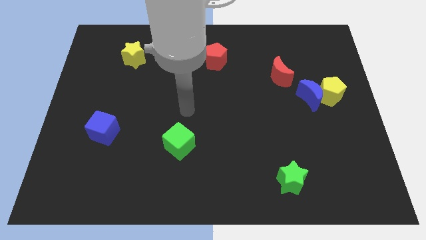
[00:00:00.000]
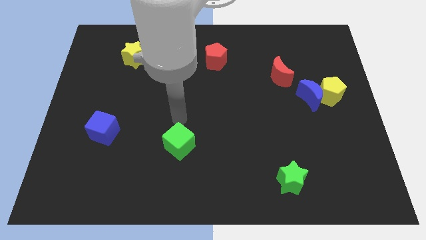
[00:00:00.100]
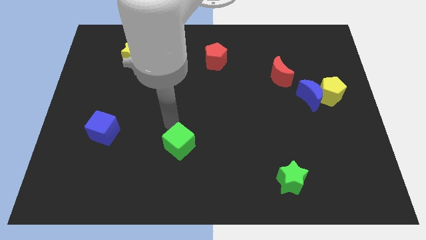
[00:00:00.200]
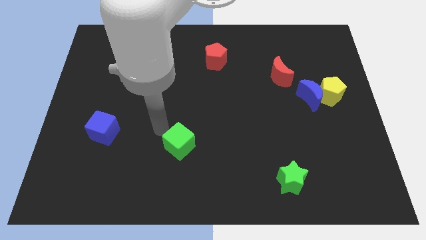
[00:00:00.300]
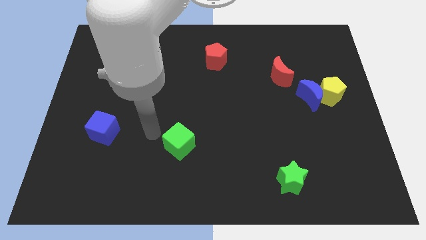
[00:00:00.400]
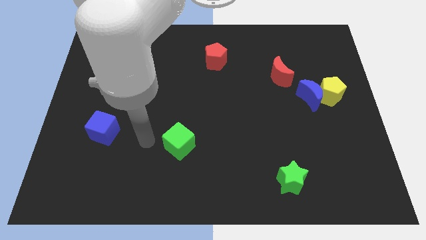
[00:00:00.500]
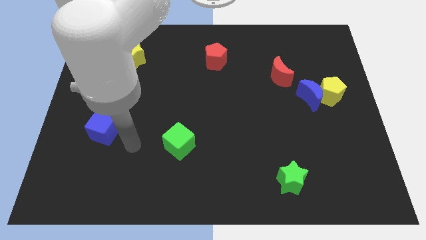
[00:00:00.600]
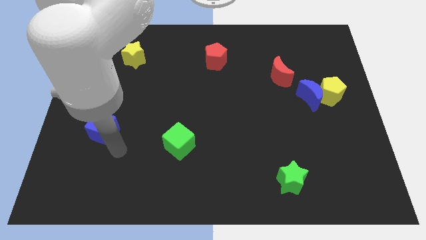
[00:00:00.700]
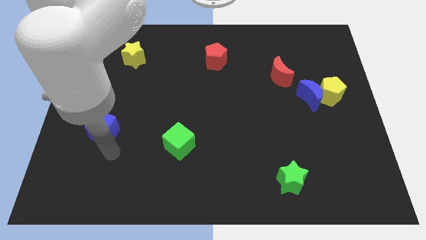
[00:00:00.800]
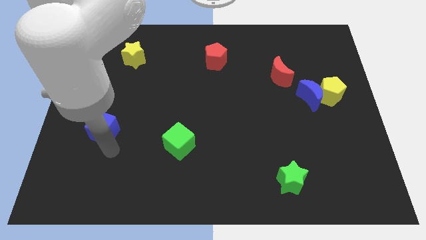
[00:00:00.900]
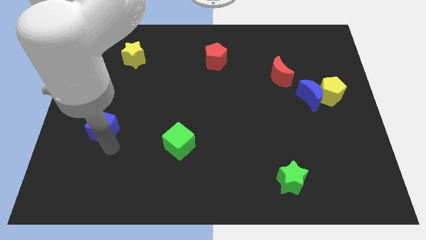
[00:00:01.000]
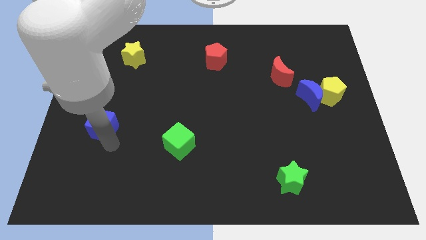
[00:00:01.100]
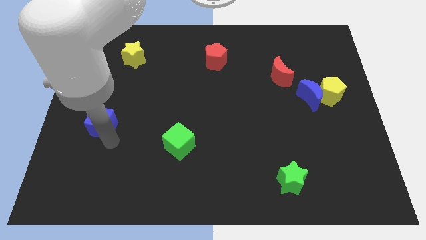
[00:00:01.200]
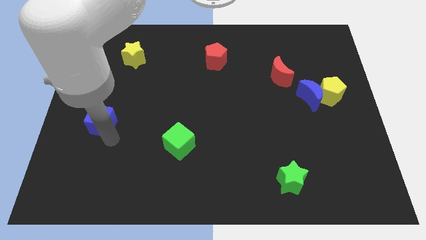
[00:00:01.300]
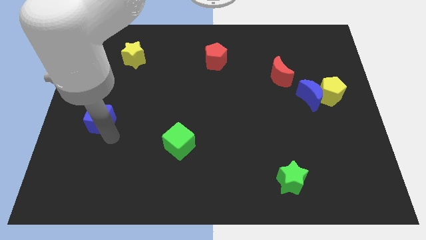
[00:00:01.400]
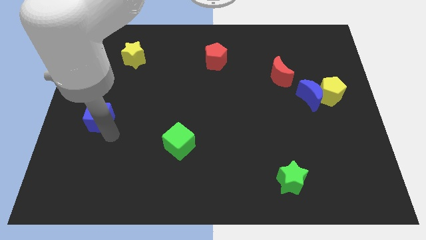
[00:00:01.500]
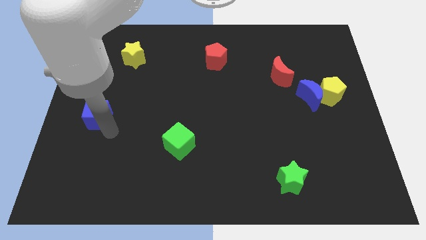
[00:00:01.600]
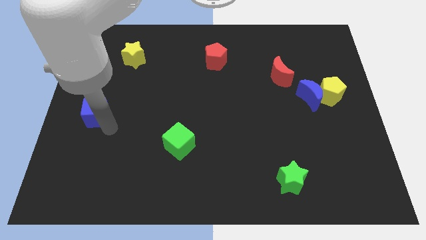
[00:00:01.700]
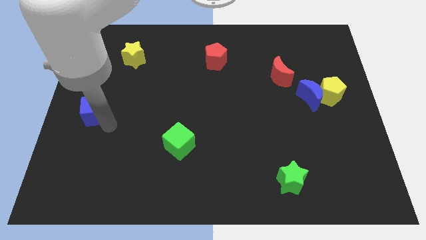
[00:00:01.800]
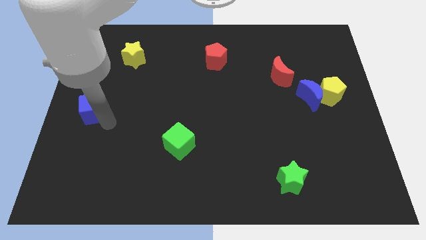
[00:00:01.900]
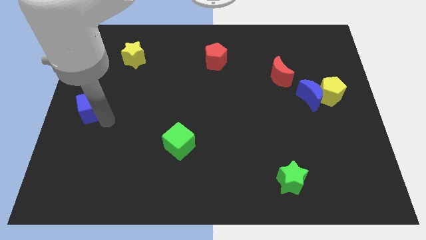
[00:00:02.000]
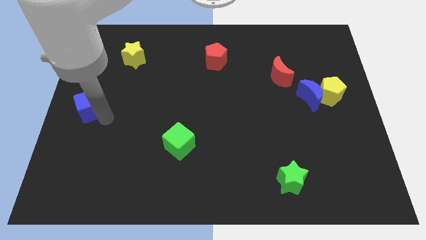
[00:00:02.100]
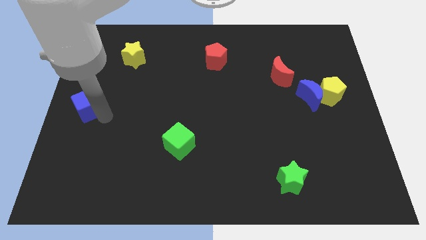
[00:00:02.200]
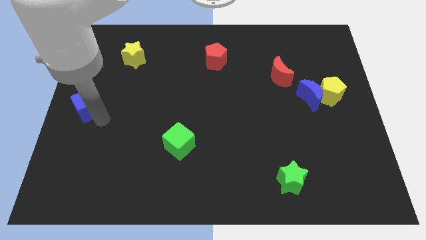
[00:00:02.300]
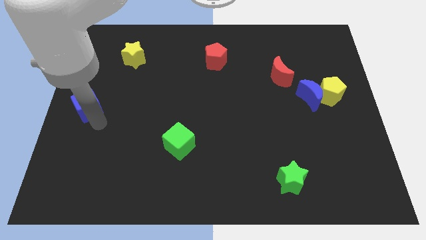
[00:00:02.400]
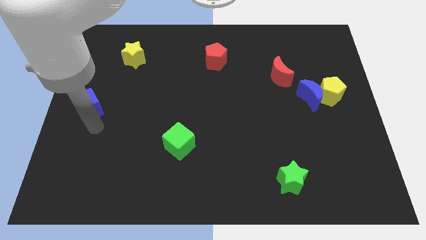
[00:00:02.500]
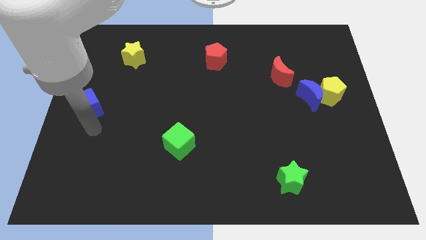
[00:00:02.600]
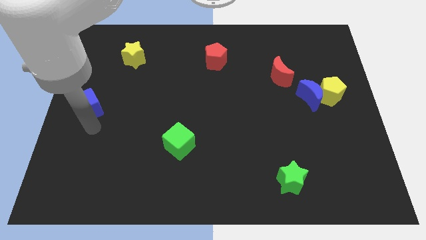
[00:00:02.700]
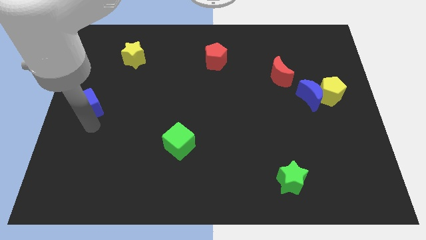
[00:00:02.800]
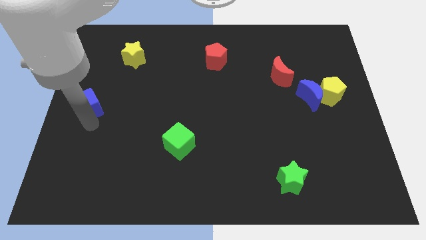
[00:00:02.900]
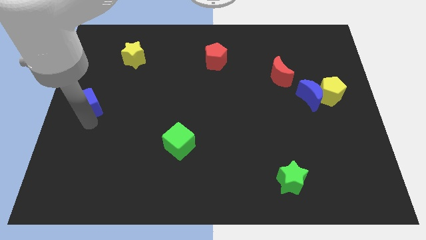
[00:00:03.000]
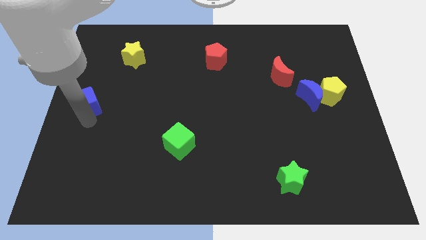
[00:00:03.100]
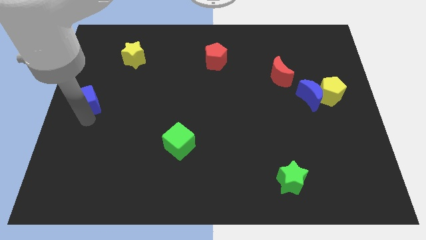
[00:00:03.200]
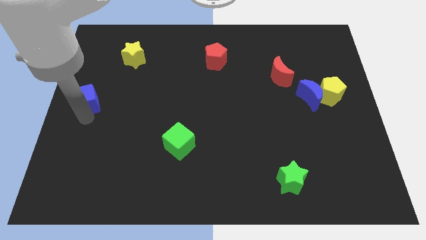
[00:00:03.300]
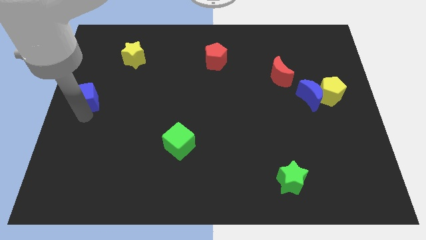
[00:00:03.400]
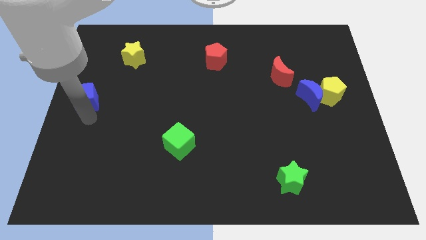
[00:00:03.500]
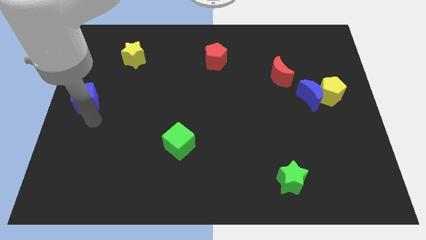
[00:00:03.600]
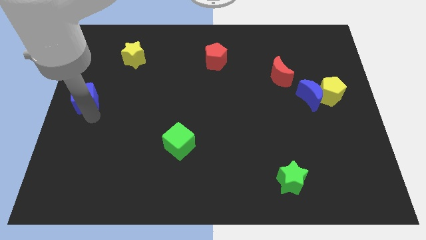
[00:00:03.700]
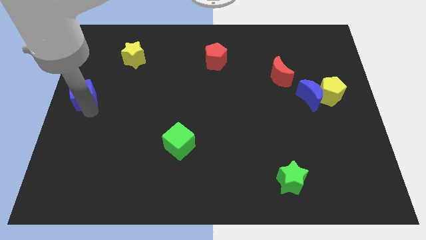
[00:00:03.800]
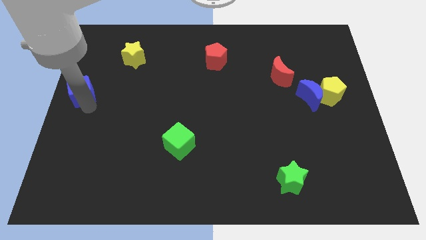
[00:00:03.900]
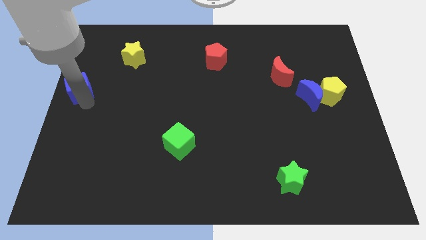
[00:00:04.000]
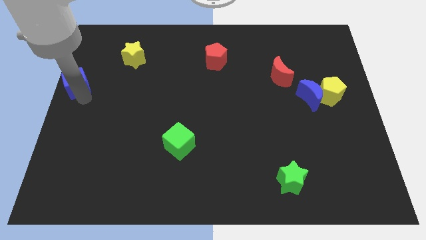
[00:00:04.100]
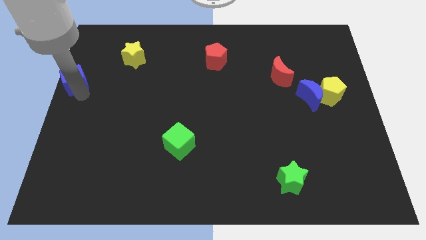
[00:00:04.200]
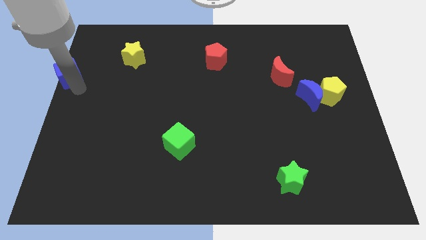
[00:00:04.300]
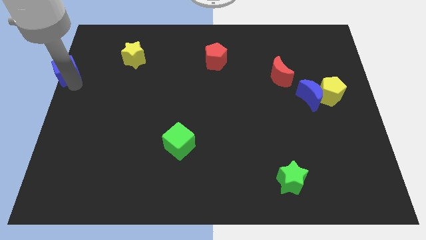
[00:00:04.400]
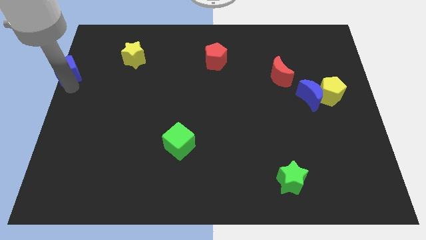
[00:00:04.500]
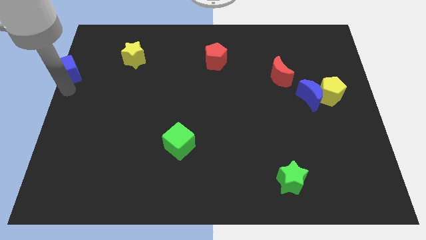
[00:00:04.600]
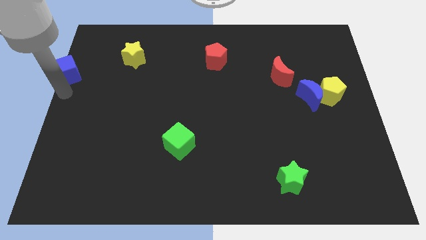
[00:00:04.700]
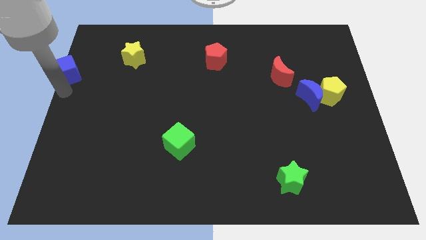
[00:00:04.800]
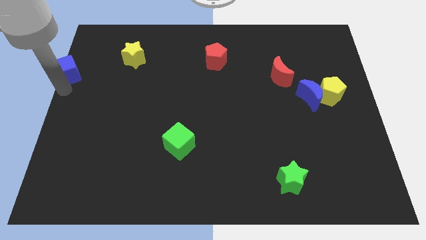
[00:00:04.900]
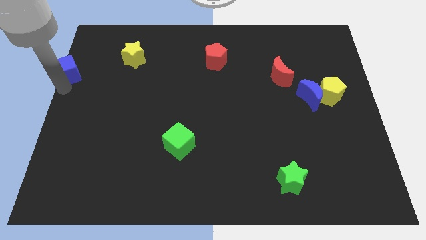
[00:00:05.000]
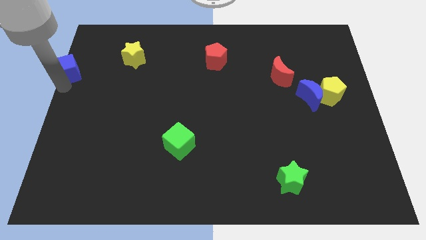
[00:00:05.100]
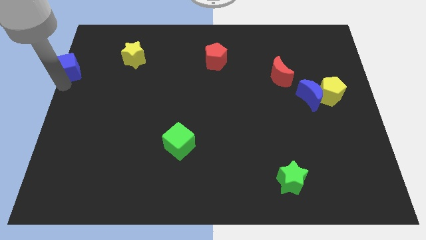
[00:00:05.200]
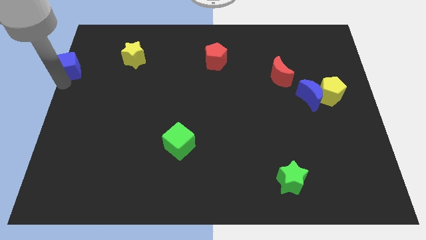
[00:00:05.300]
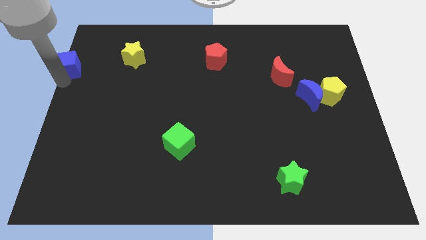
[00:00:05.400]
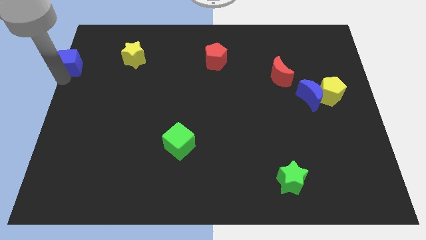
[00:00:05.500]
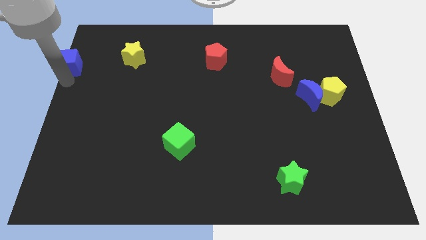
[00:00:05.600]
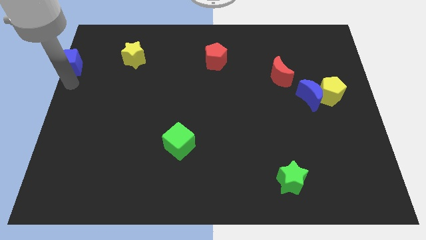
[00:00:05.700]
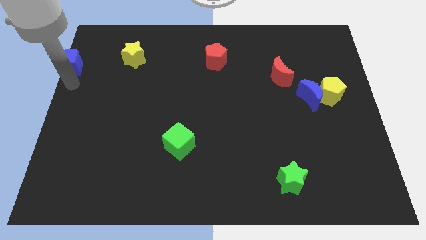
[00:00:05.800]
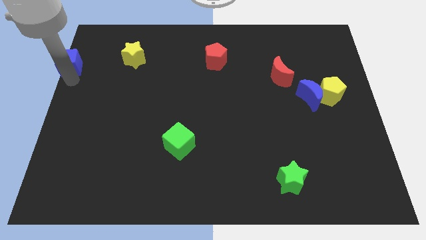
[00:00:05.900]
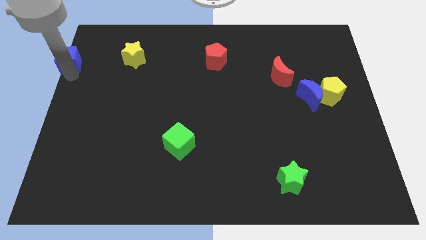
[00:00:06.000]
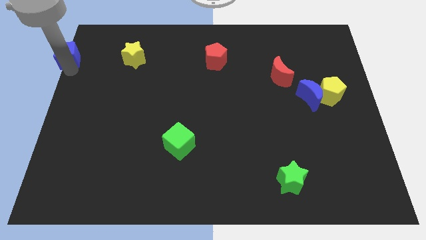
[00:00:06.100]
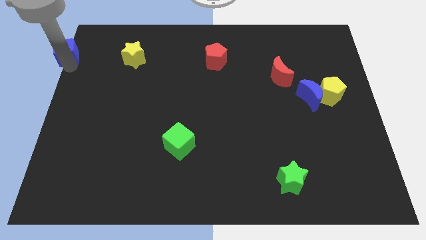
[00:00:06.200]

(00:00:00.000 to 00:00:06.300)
put the blue cube to the upper left corner

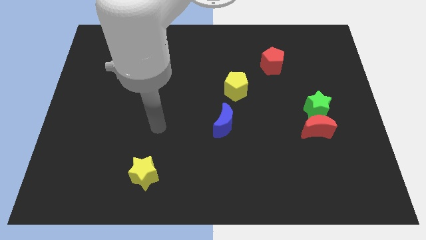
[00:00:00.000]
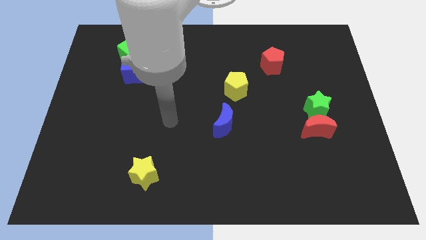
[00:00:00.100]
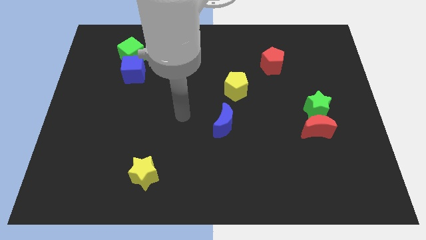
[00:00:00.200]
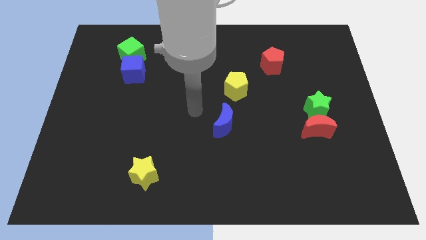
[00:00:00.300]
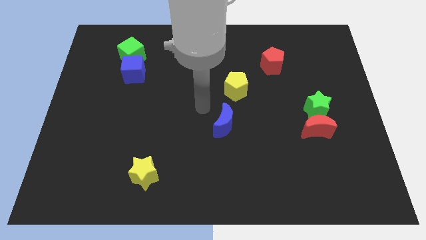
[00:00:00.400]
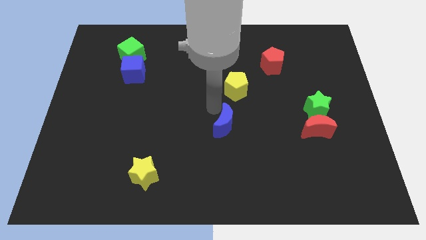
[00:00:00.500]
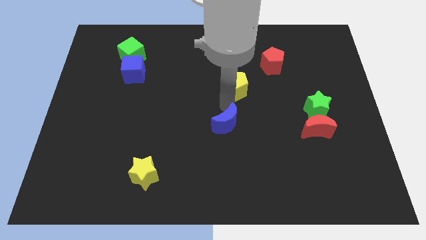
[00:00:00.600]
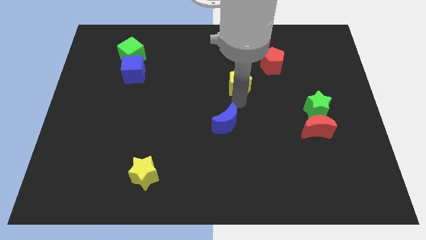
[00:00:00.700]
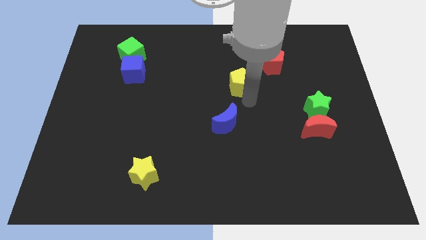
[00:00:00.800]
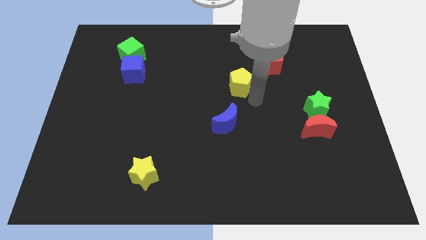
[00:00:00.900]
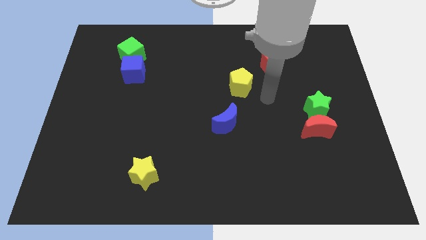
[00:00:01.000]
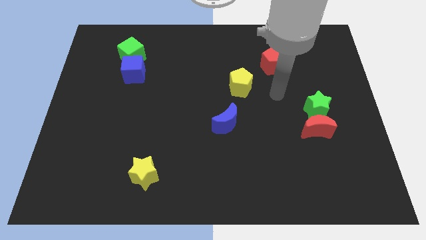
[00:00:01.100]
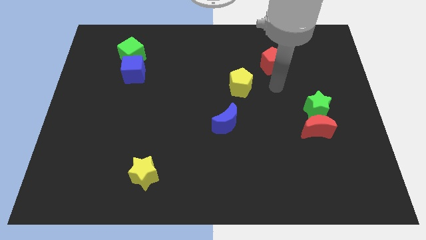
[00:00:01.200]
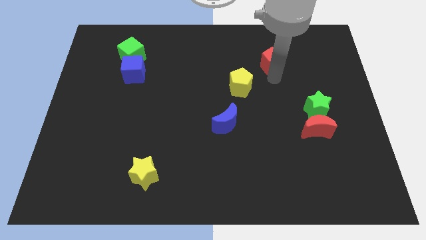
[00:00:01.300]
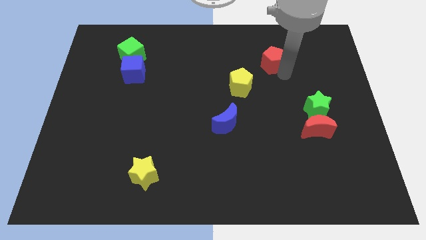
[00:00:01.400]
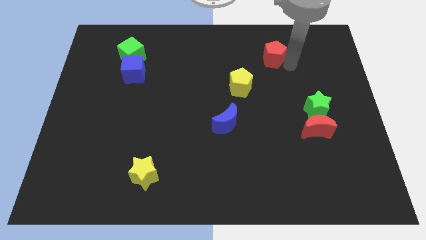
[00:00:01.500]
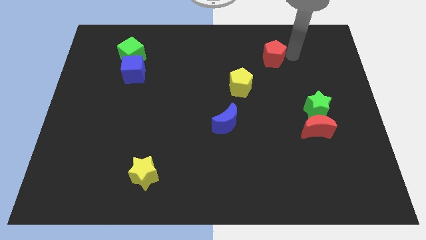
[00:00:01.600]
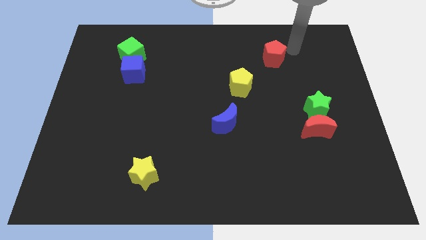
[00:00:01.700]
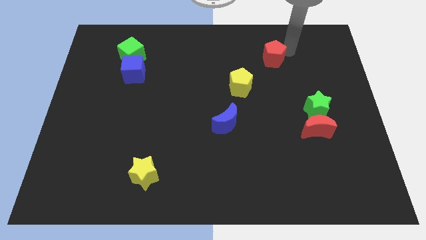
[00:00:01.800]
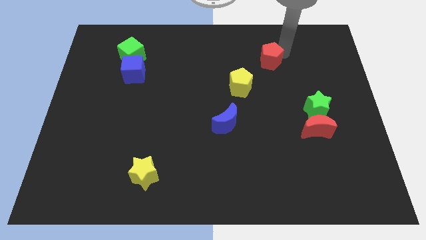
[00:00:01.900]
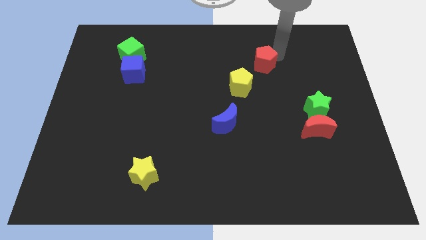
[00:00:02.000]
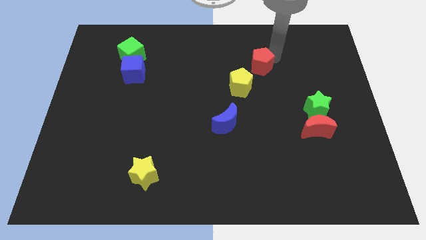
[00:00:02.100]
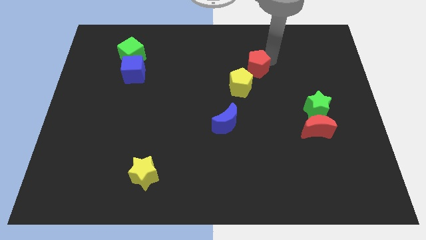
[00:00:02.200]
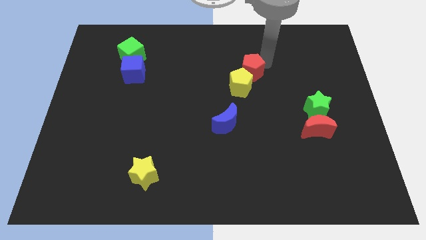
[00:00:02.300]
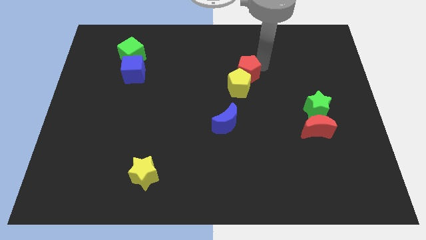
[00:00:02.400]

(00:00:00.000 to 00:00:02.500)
slide the red pentagon to the center
